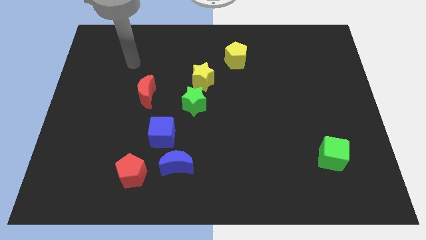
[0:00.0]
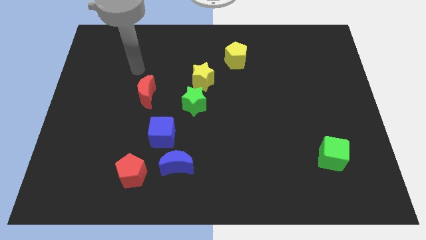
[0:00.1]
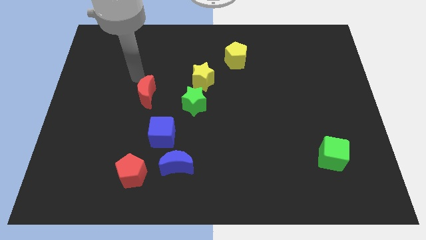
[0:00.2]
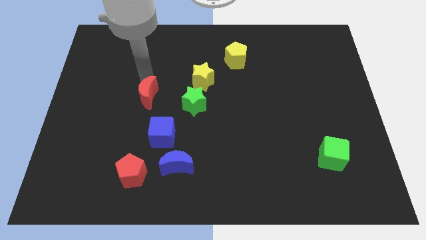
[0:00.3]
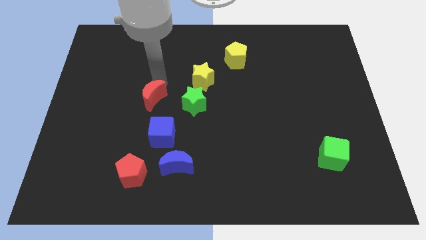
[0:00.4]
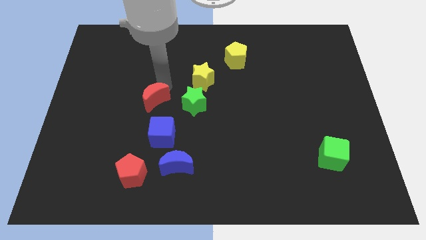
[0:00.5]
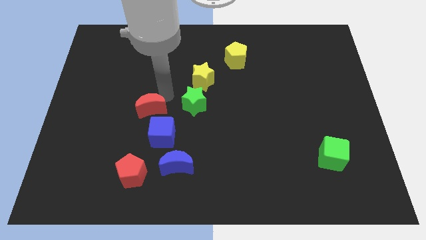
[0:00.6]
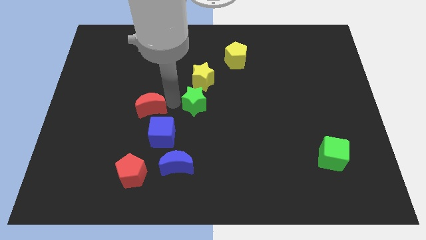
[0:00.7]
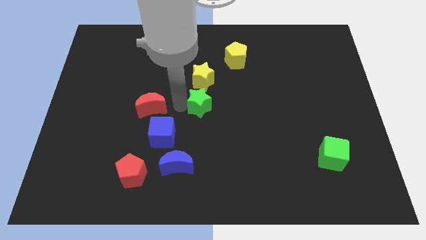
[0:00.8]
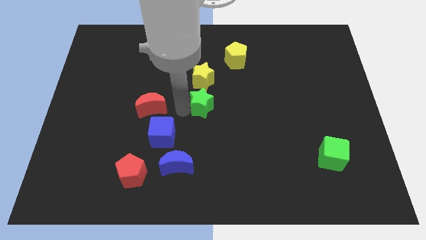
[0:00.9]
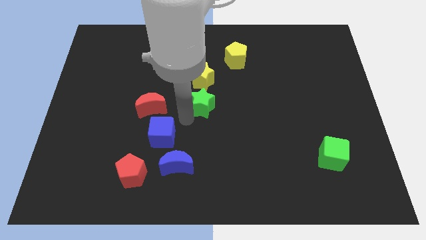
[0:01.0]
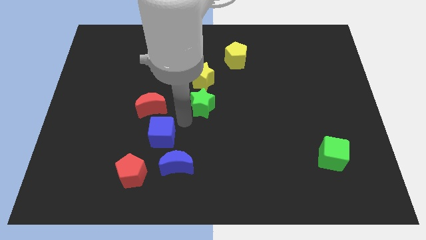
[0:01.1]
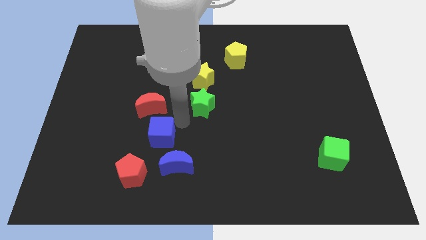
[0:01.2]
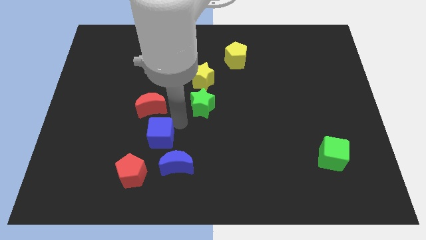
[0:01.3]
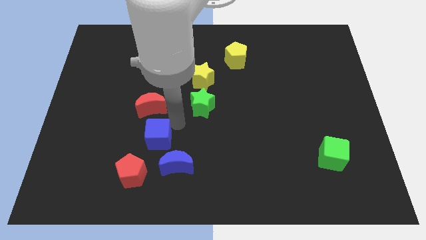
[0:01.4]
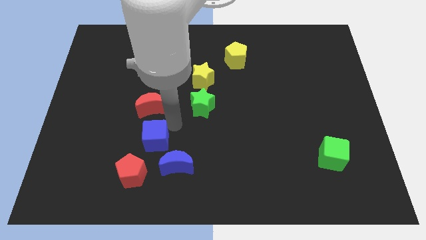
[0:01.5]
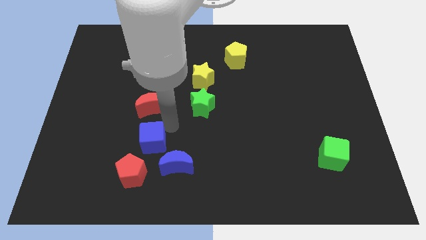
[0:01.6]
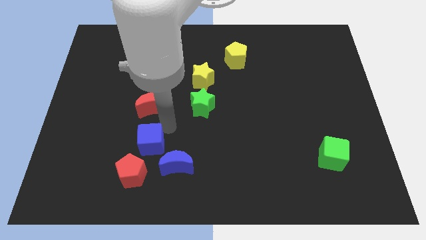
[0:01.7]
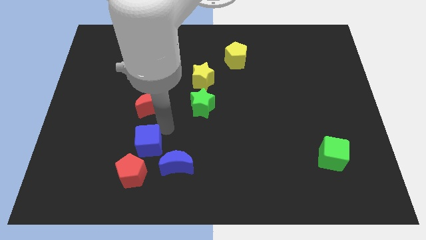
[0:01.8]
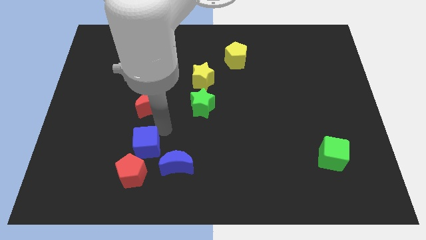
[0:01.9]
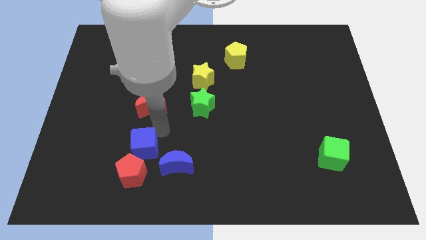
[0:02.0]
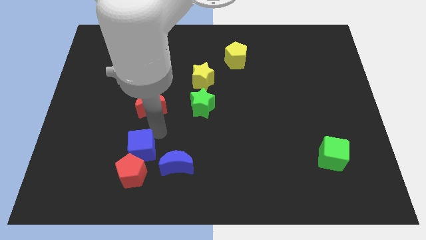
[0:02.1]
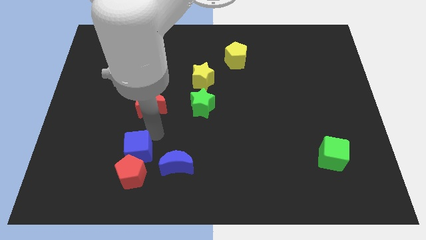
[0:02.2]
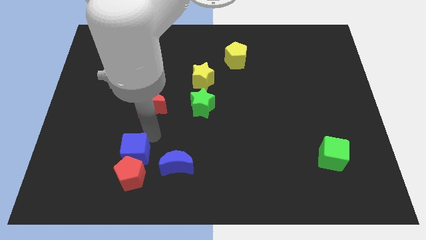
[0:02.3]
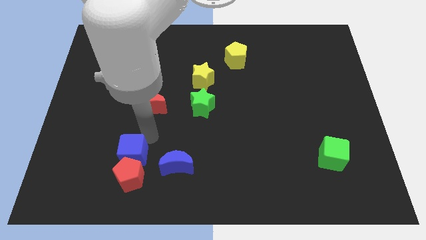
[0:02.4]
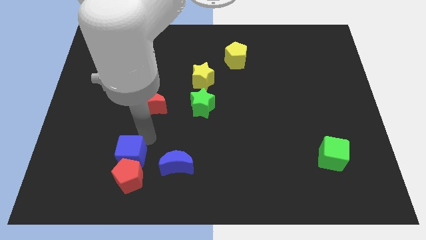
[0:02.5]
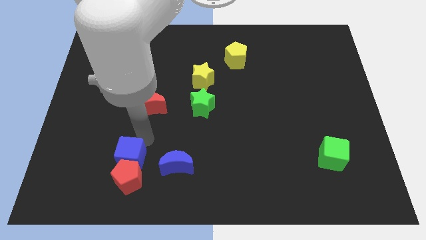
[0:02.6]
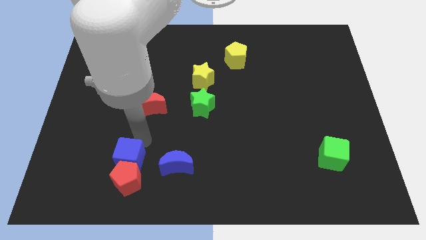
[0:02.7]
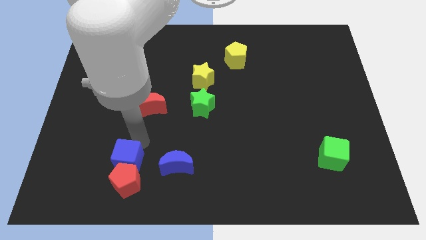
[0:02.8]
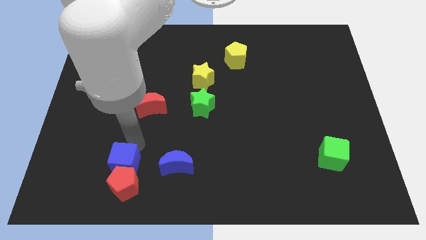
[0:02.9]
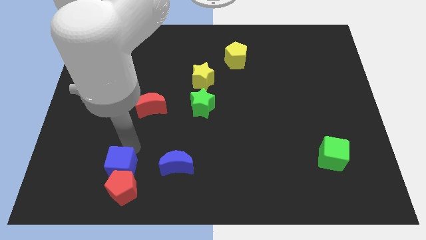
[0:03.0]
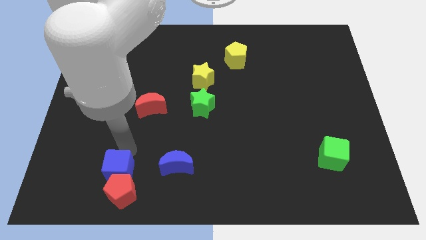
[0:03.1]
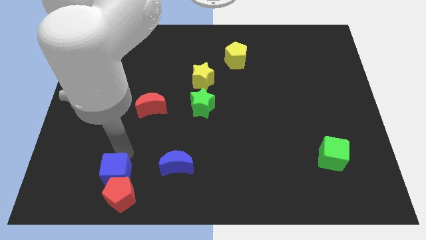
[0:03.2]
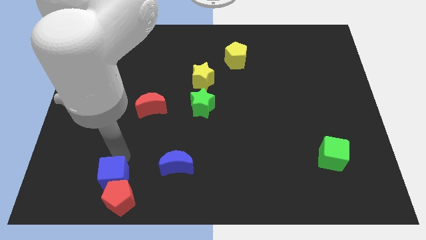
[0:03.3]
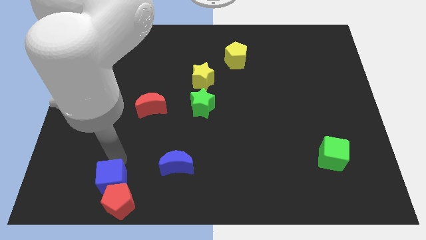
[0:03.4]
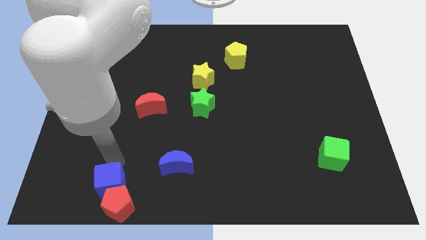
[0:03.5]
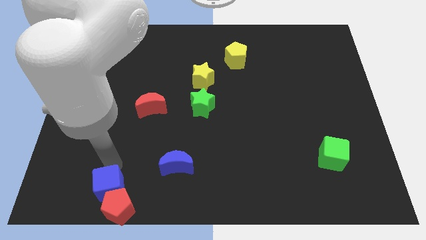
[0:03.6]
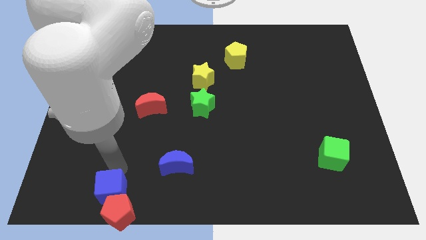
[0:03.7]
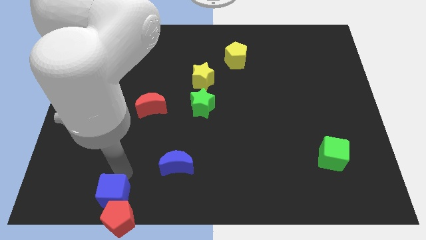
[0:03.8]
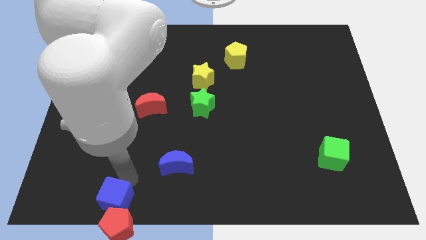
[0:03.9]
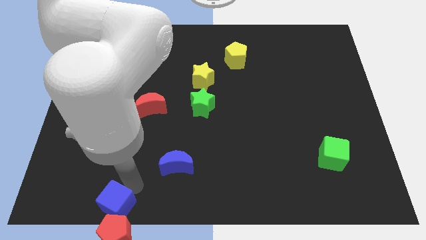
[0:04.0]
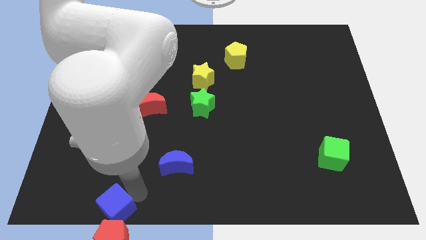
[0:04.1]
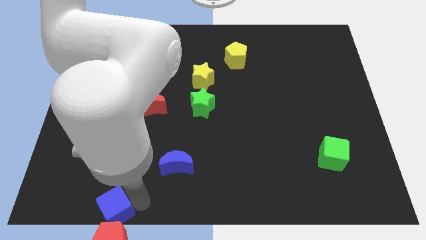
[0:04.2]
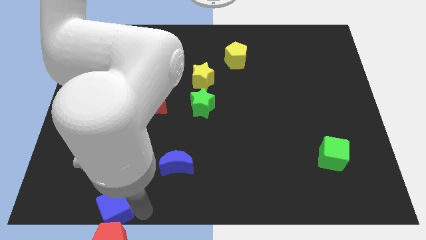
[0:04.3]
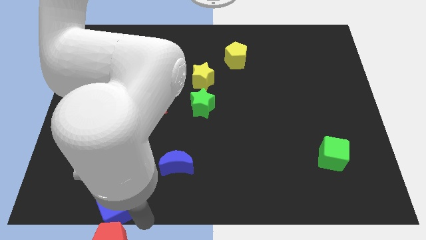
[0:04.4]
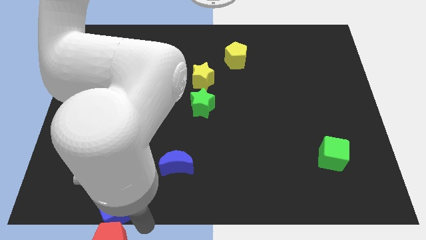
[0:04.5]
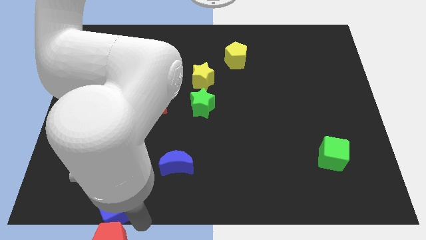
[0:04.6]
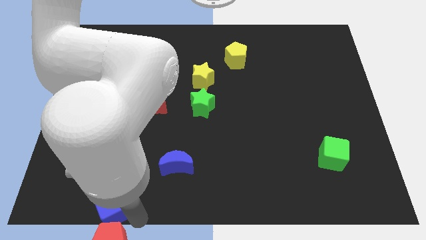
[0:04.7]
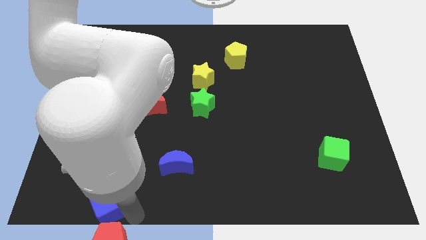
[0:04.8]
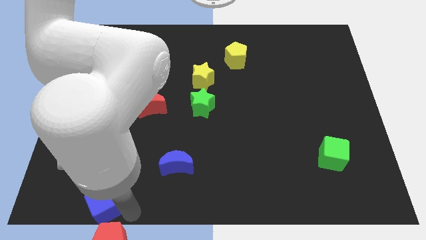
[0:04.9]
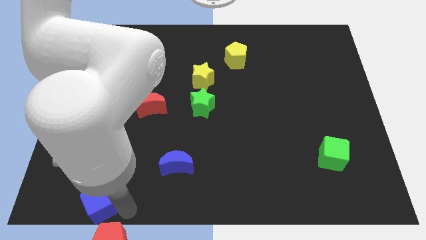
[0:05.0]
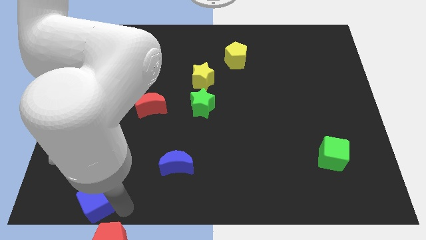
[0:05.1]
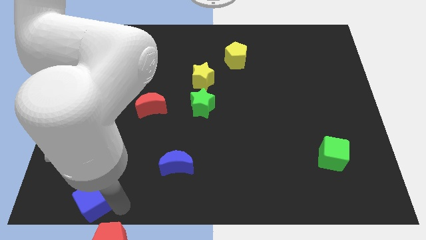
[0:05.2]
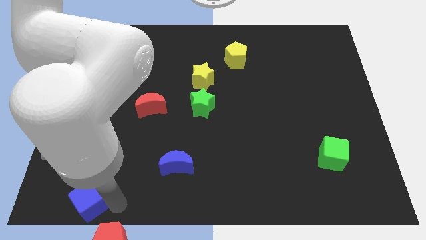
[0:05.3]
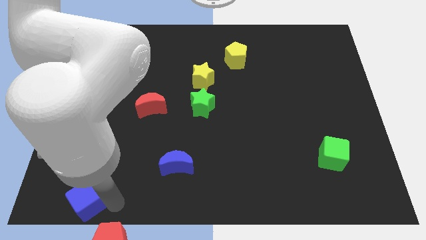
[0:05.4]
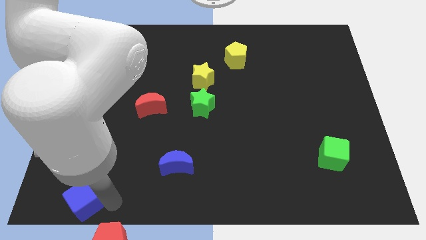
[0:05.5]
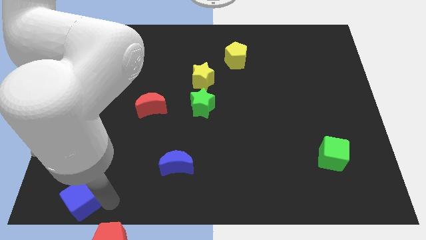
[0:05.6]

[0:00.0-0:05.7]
move the blue cube to the bottom left corner
